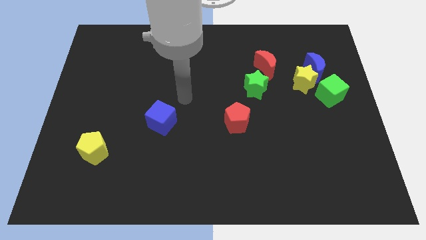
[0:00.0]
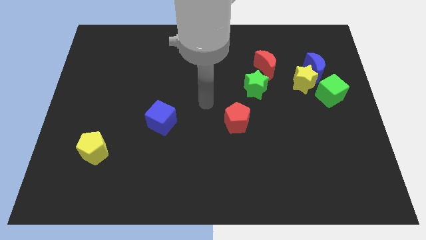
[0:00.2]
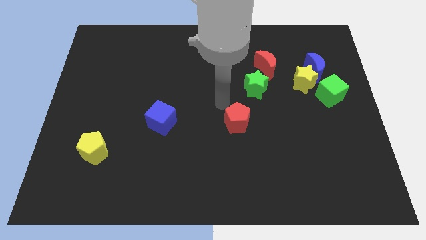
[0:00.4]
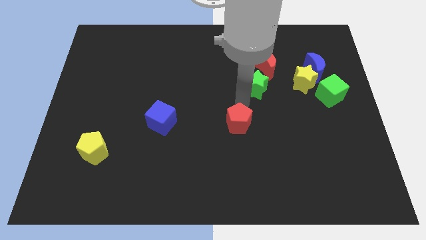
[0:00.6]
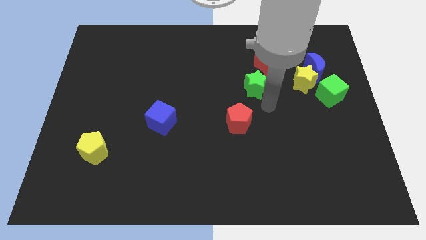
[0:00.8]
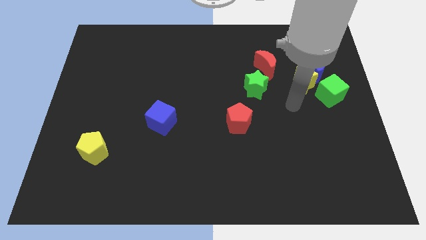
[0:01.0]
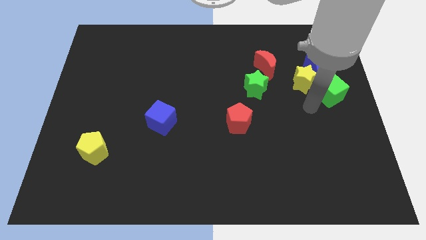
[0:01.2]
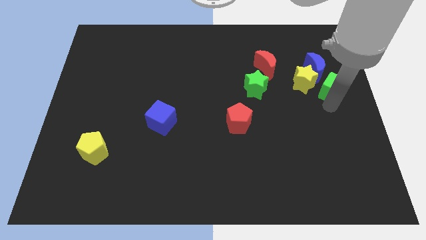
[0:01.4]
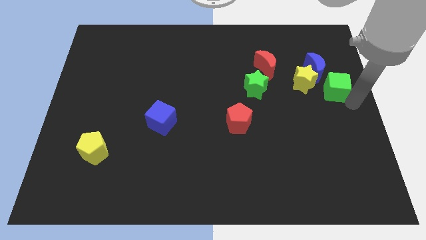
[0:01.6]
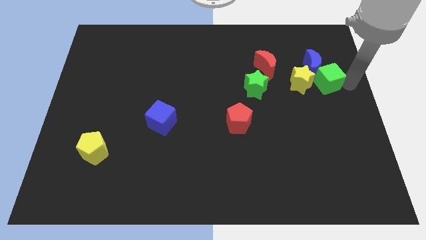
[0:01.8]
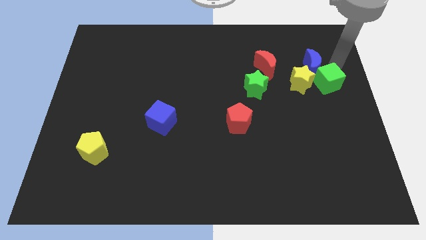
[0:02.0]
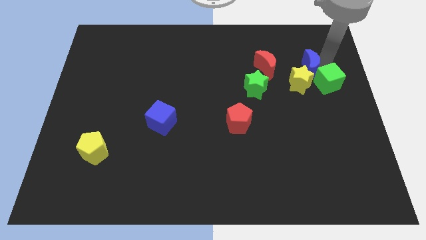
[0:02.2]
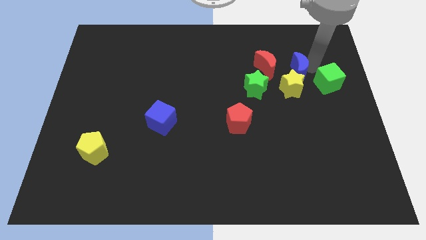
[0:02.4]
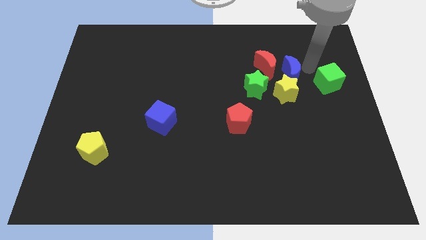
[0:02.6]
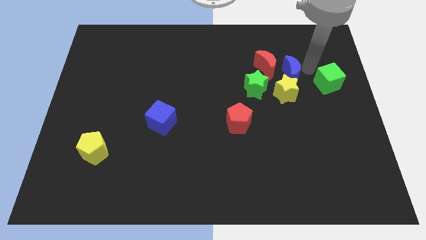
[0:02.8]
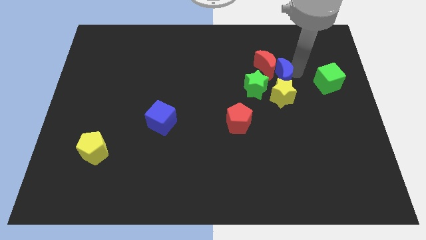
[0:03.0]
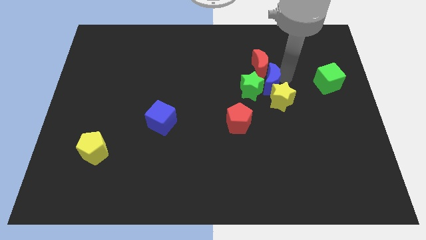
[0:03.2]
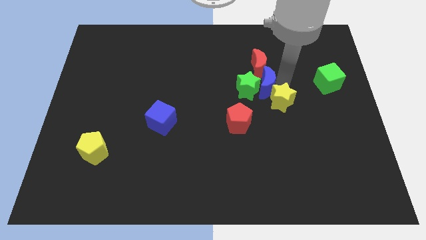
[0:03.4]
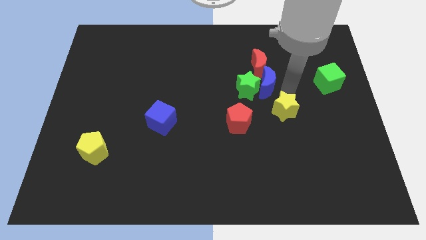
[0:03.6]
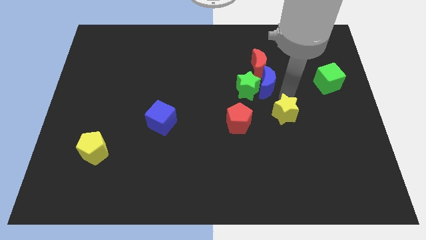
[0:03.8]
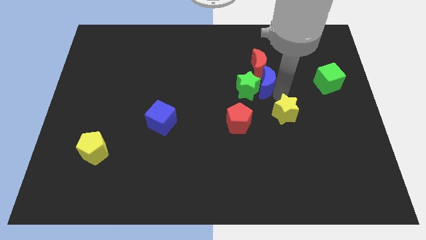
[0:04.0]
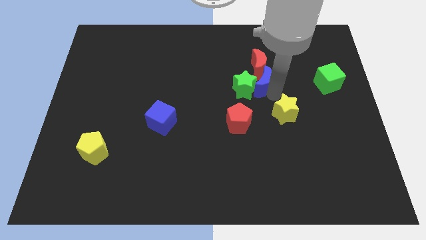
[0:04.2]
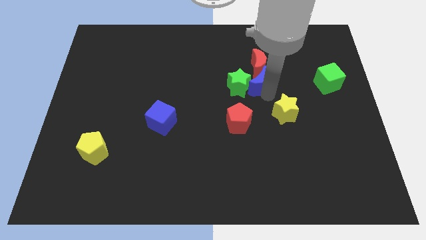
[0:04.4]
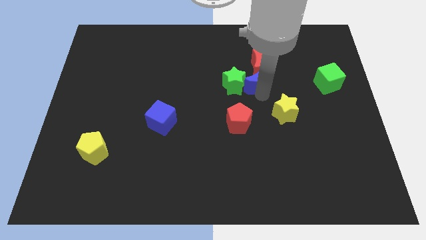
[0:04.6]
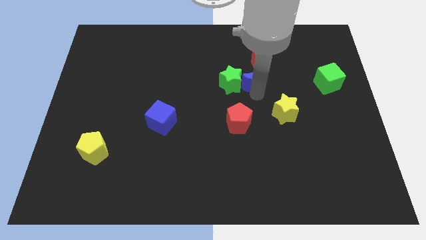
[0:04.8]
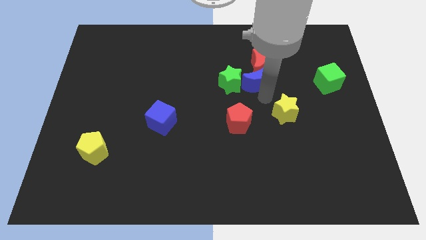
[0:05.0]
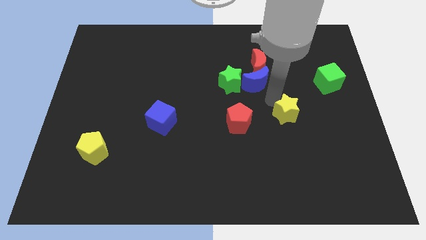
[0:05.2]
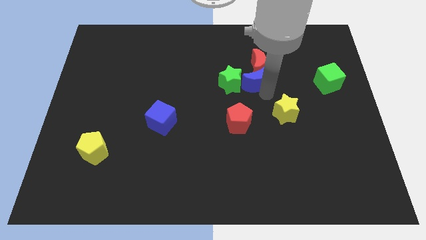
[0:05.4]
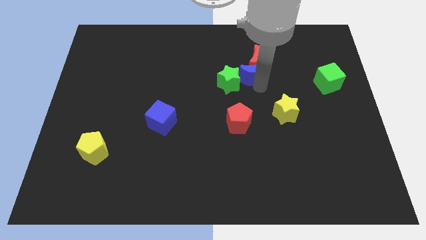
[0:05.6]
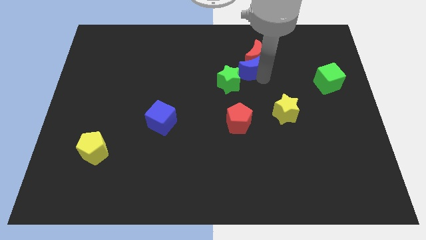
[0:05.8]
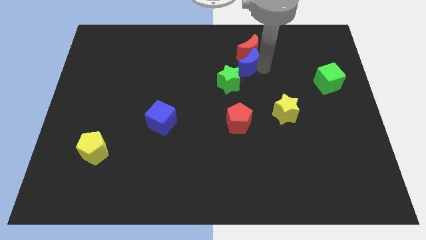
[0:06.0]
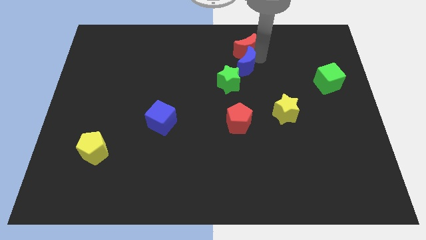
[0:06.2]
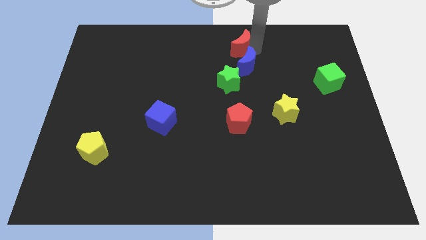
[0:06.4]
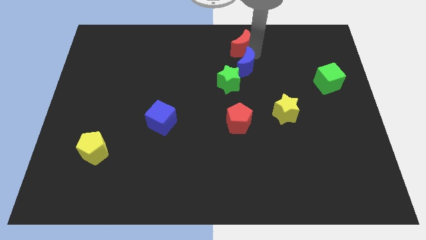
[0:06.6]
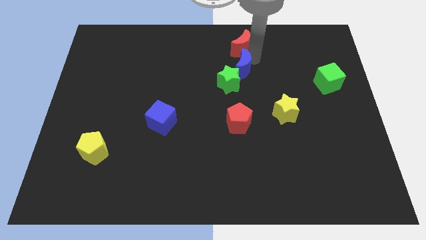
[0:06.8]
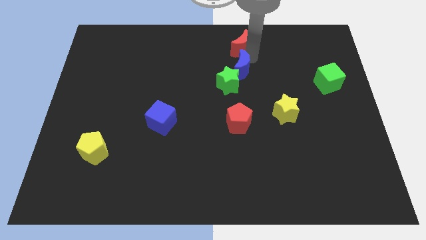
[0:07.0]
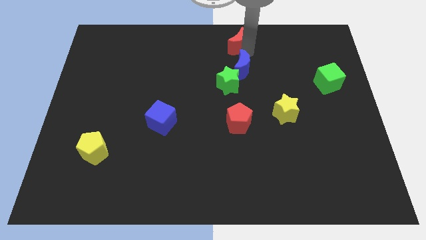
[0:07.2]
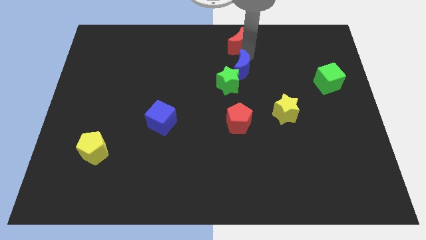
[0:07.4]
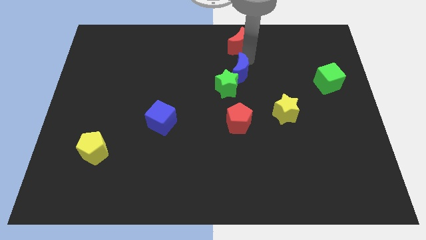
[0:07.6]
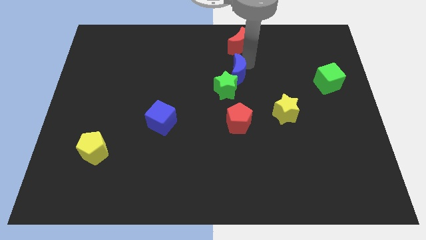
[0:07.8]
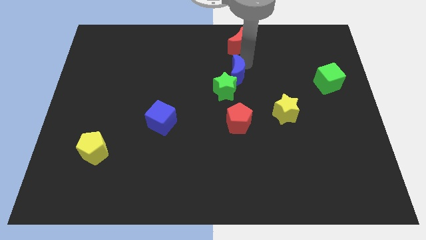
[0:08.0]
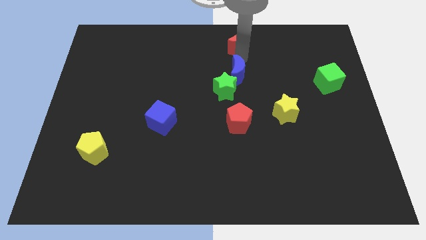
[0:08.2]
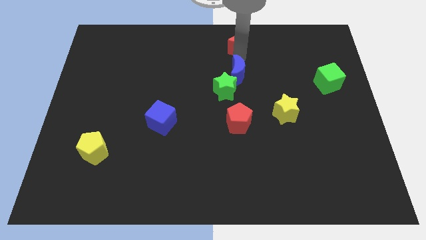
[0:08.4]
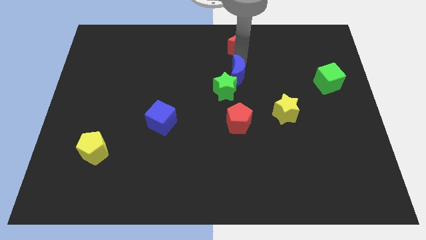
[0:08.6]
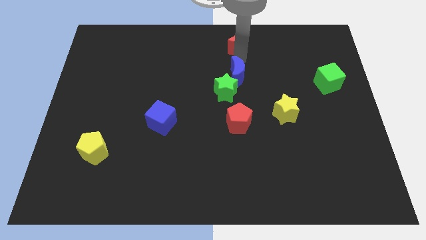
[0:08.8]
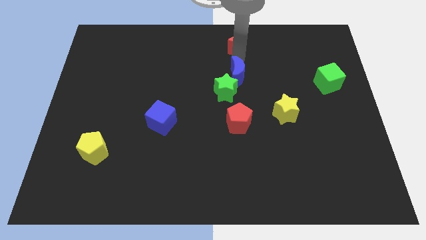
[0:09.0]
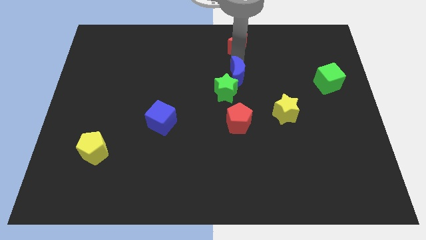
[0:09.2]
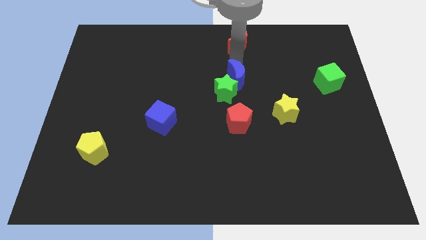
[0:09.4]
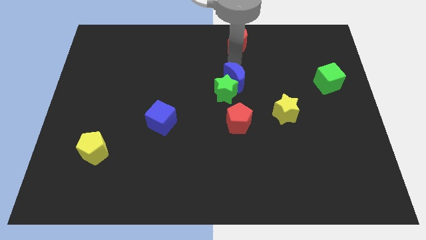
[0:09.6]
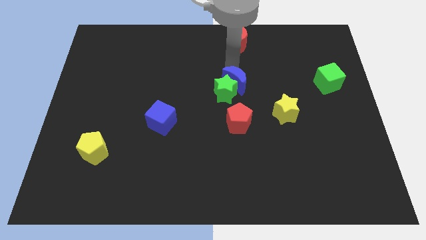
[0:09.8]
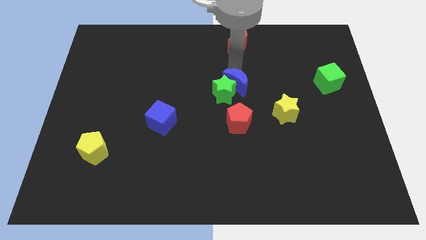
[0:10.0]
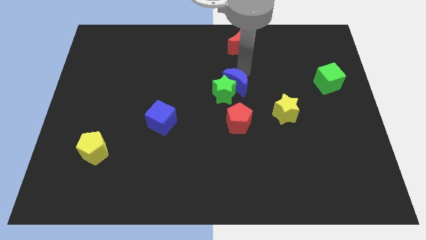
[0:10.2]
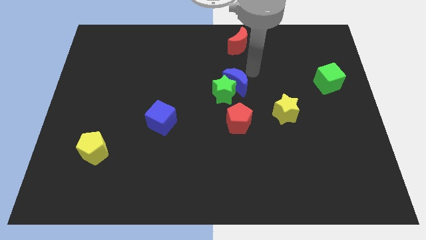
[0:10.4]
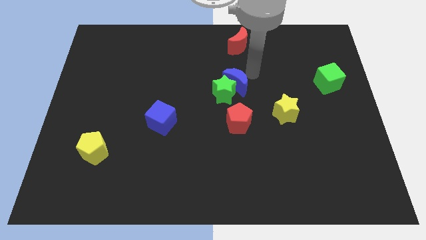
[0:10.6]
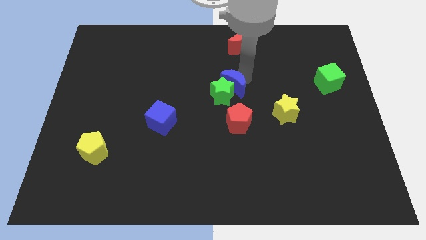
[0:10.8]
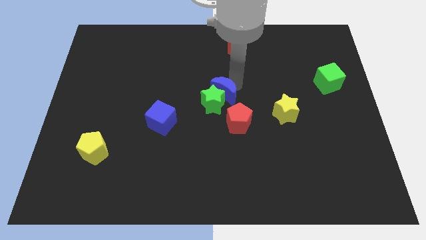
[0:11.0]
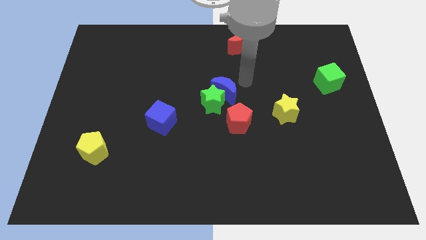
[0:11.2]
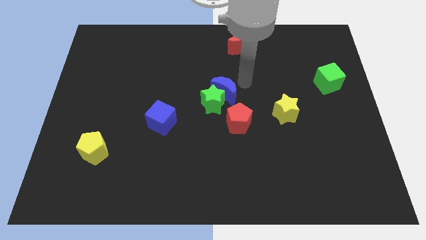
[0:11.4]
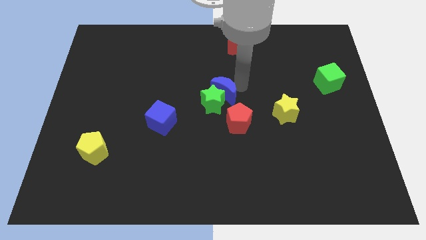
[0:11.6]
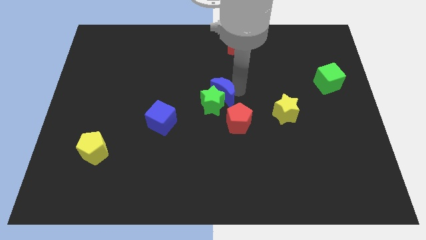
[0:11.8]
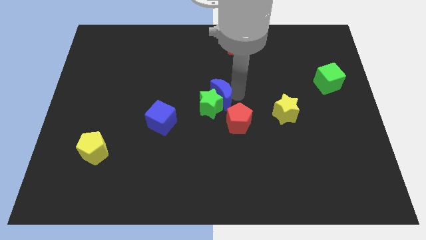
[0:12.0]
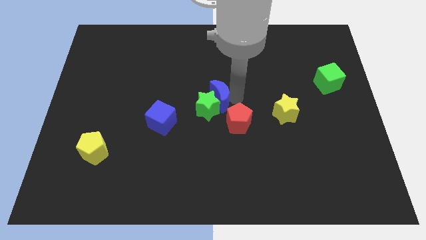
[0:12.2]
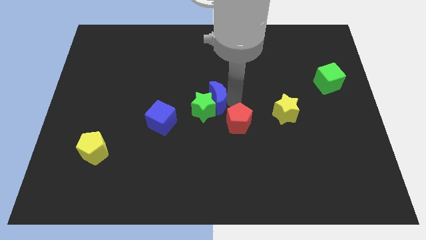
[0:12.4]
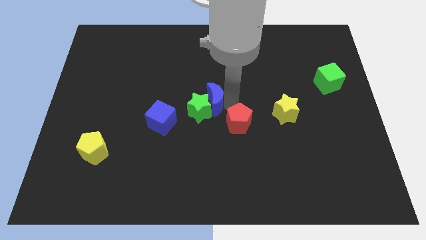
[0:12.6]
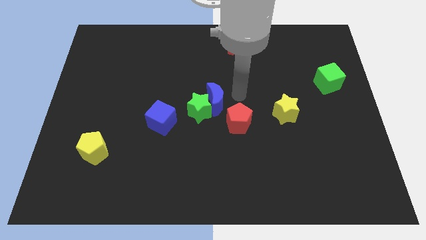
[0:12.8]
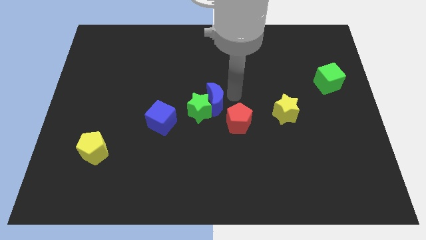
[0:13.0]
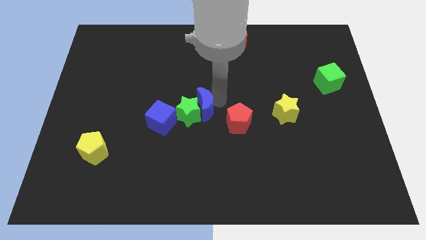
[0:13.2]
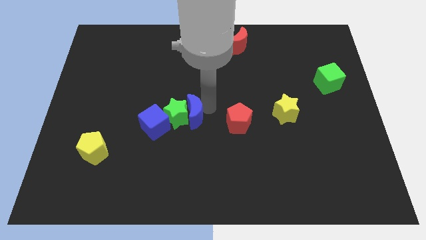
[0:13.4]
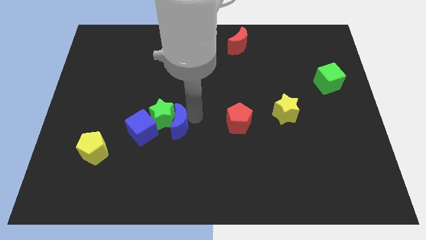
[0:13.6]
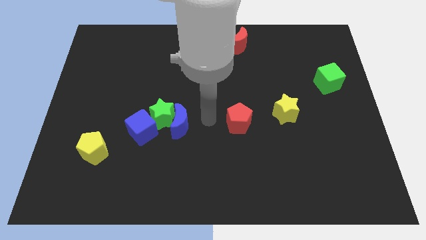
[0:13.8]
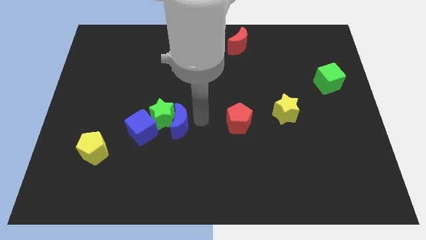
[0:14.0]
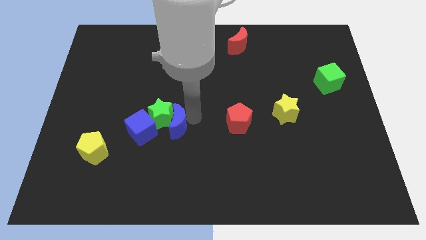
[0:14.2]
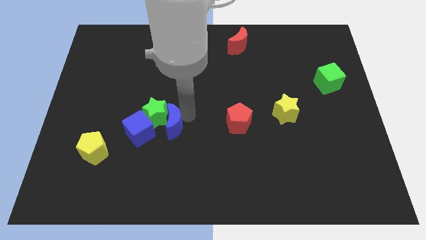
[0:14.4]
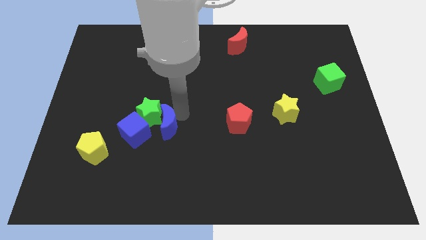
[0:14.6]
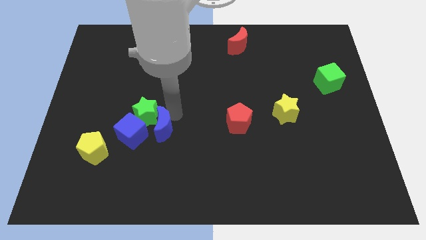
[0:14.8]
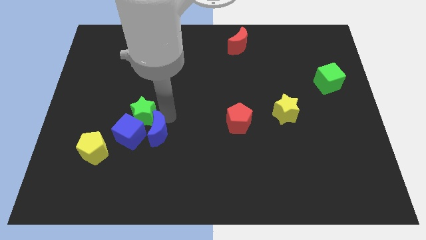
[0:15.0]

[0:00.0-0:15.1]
push the blue moon to the blue cube

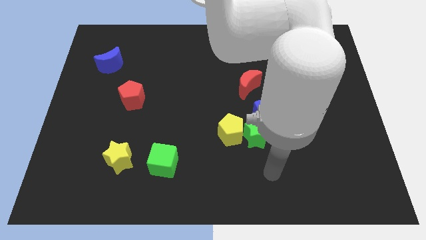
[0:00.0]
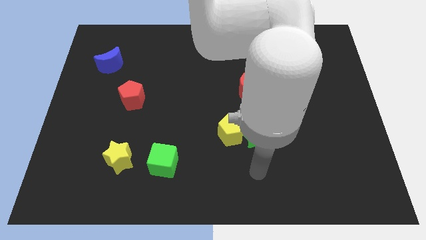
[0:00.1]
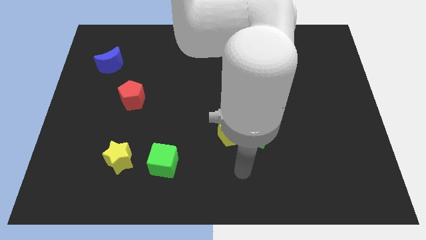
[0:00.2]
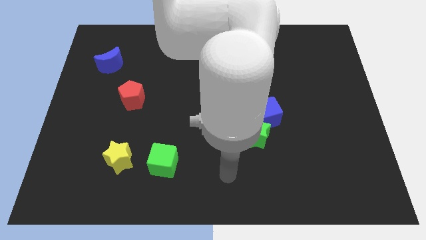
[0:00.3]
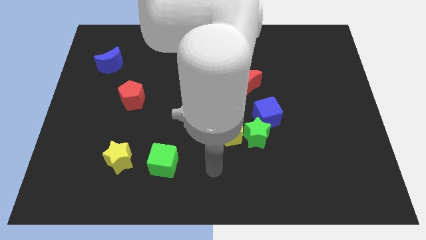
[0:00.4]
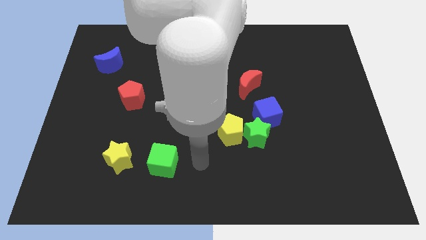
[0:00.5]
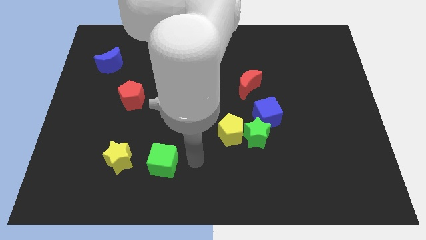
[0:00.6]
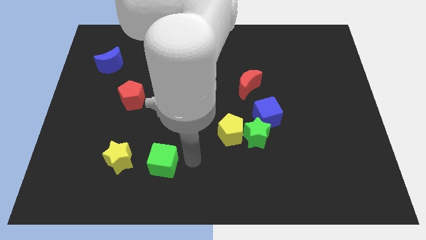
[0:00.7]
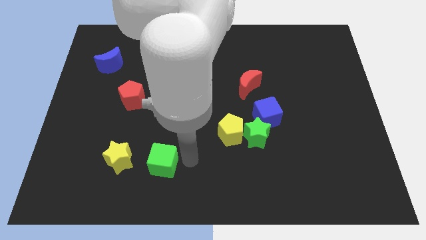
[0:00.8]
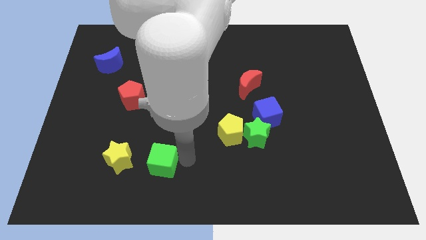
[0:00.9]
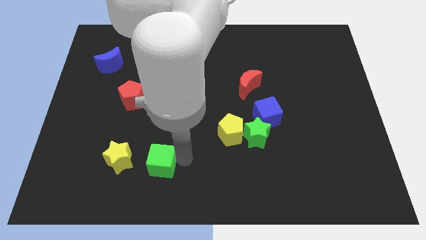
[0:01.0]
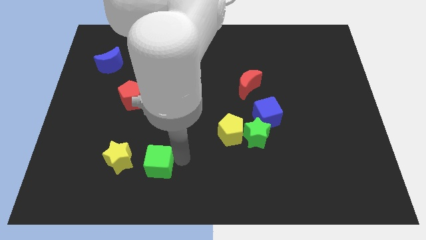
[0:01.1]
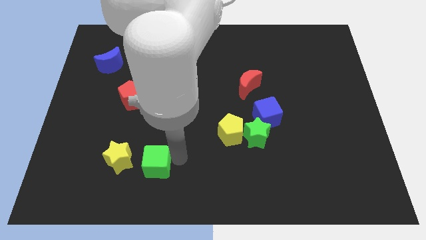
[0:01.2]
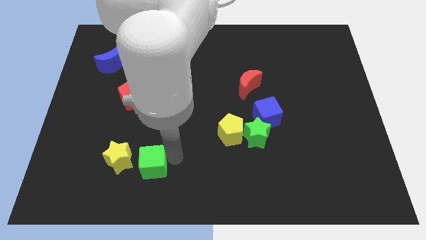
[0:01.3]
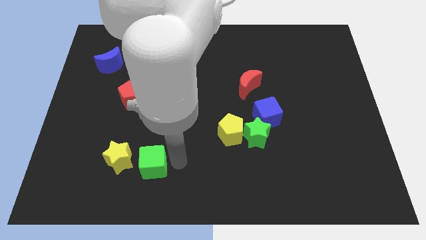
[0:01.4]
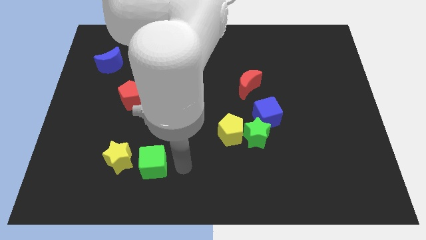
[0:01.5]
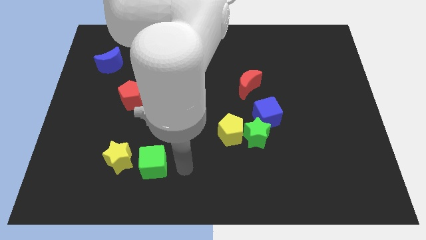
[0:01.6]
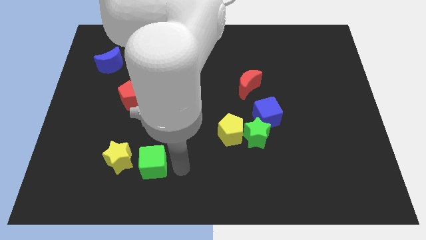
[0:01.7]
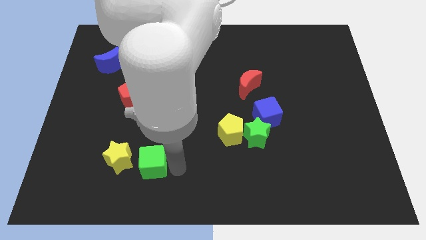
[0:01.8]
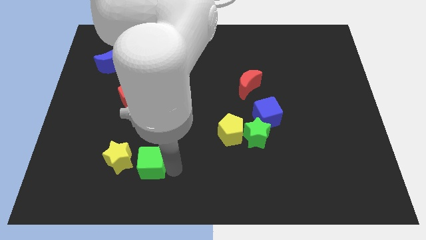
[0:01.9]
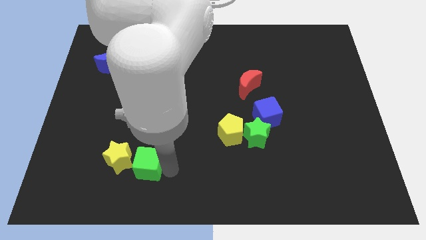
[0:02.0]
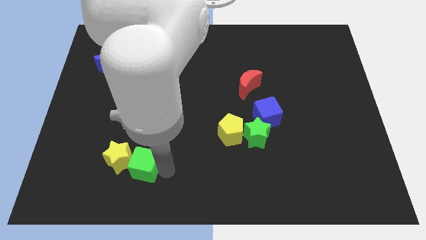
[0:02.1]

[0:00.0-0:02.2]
move the green cube next to the yellow star
